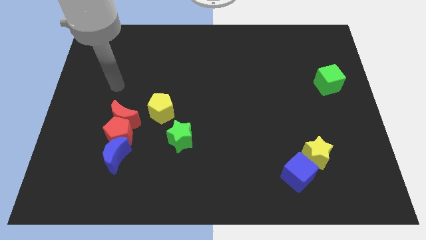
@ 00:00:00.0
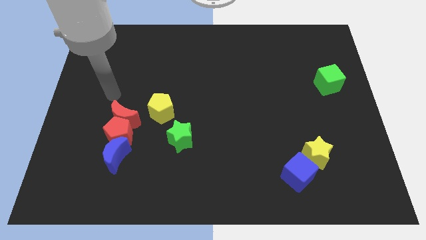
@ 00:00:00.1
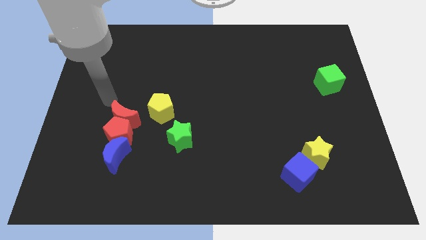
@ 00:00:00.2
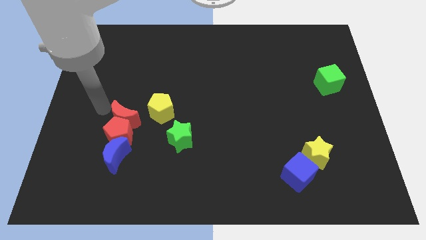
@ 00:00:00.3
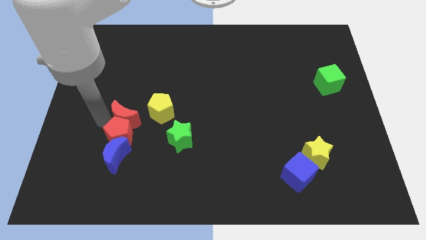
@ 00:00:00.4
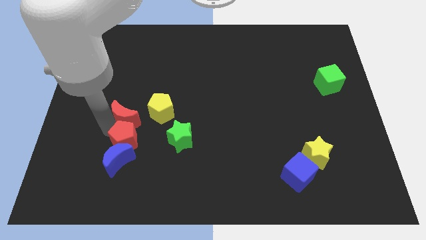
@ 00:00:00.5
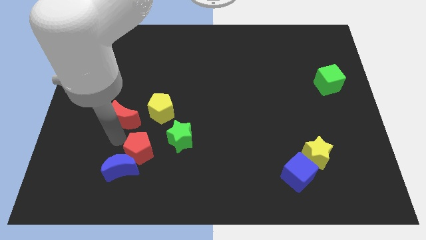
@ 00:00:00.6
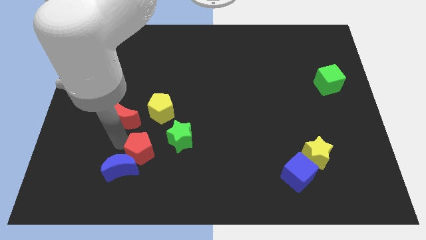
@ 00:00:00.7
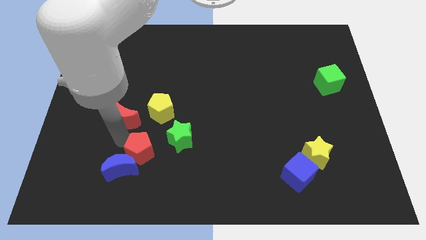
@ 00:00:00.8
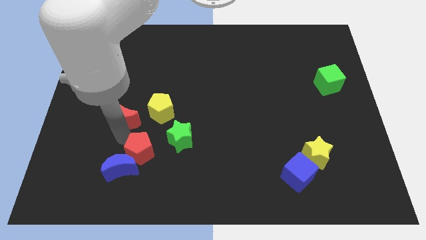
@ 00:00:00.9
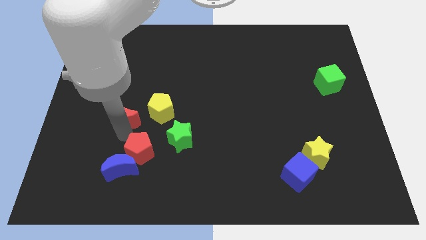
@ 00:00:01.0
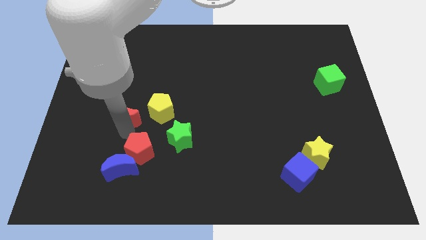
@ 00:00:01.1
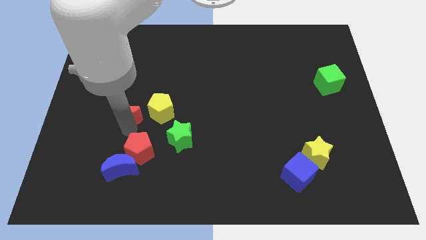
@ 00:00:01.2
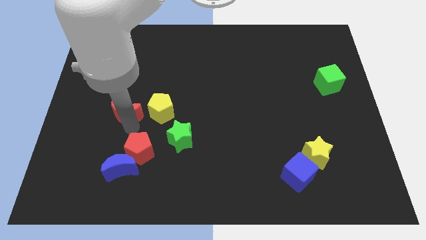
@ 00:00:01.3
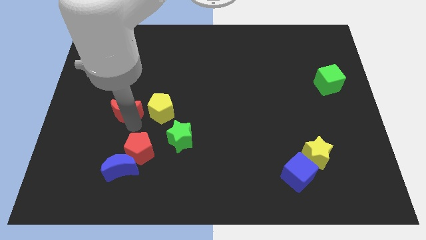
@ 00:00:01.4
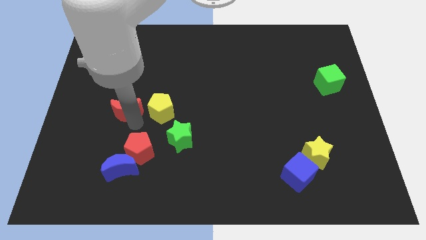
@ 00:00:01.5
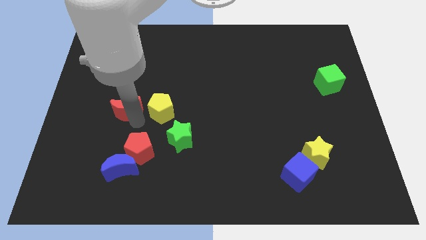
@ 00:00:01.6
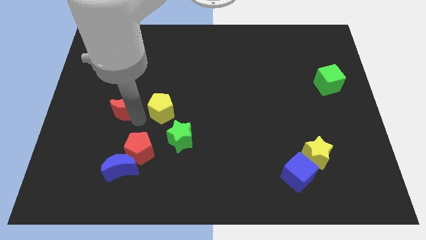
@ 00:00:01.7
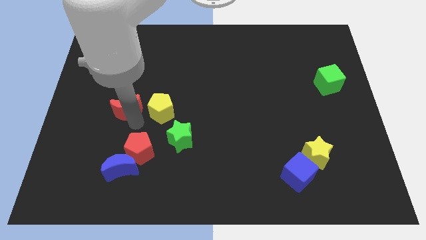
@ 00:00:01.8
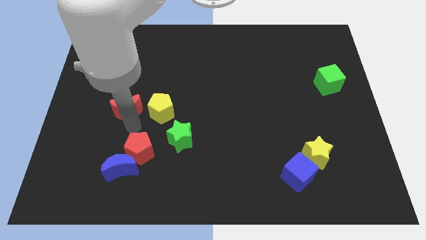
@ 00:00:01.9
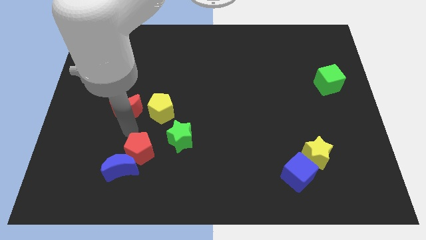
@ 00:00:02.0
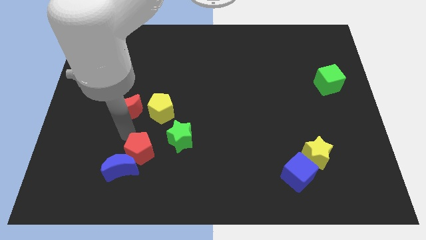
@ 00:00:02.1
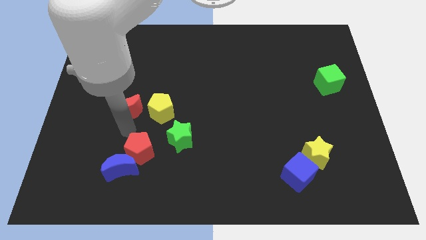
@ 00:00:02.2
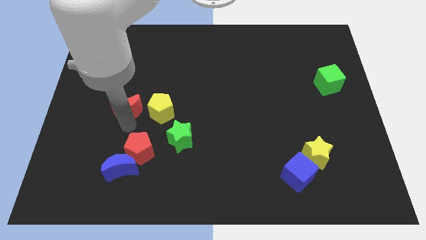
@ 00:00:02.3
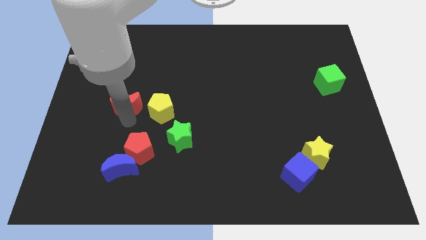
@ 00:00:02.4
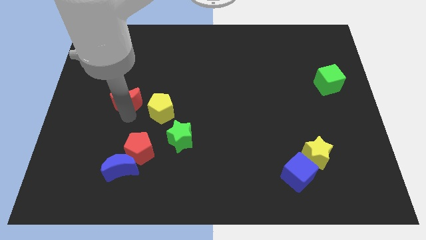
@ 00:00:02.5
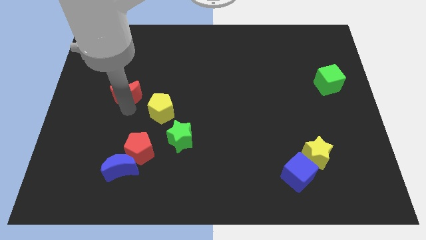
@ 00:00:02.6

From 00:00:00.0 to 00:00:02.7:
slide the red moon somewhat upwards

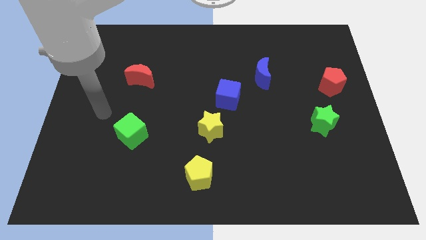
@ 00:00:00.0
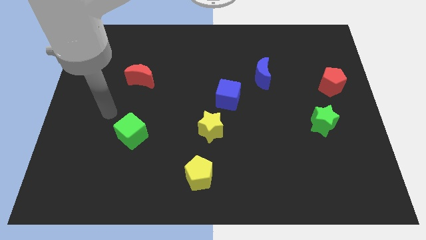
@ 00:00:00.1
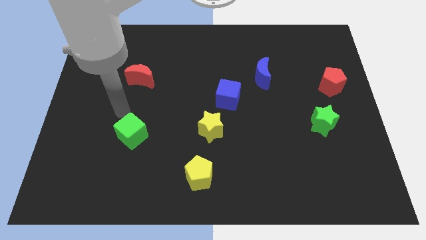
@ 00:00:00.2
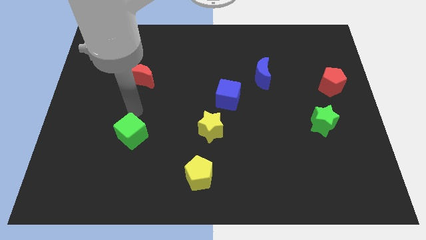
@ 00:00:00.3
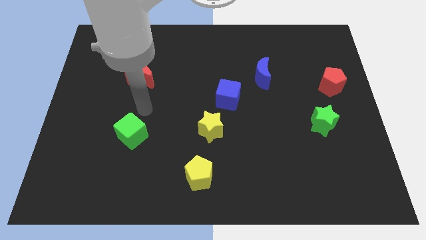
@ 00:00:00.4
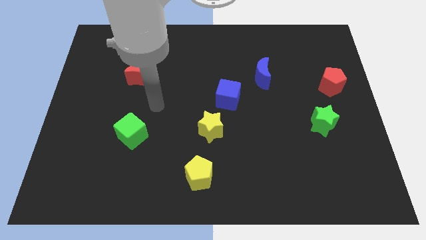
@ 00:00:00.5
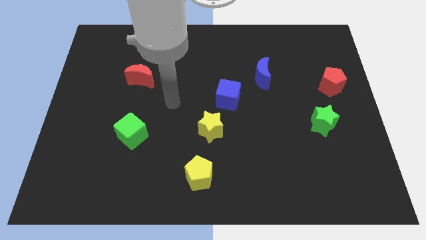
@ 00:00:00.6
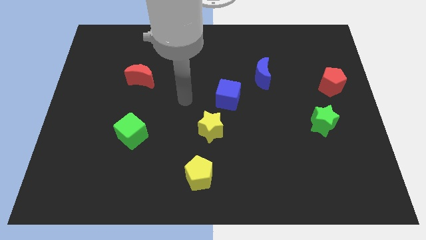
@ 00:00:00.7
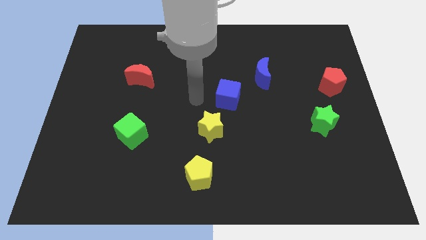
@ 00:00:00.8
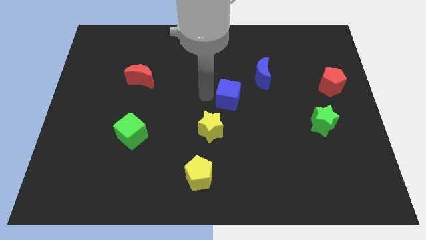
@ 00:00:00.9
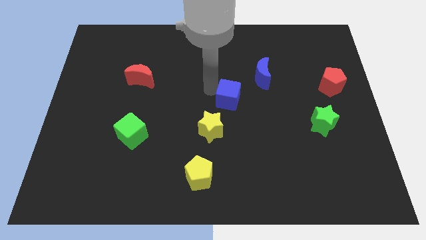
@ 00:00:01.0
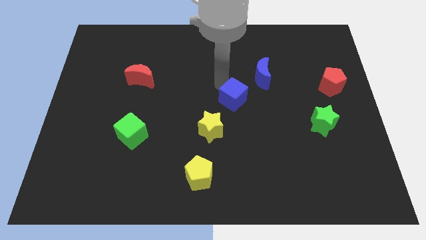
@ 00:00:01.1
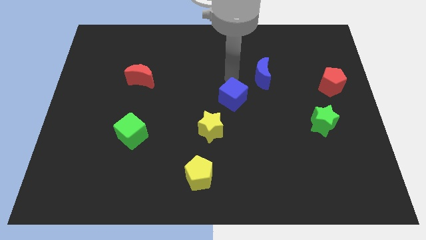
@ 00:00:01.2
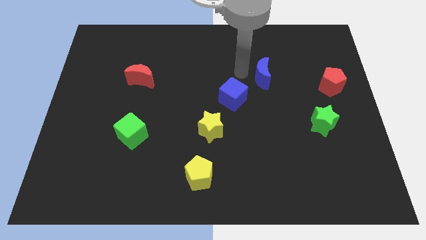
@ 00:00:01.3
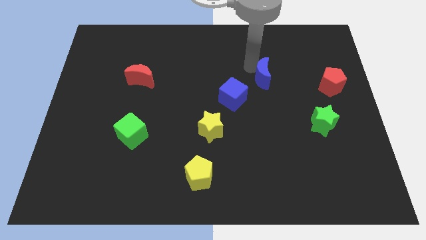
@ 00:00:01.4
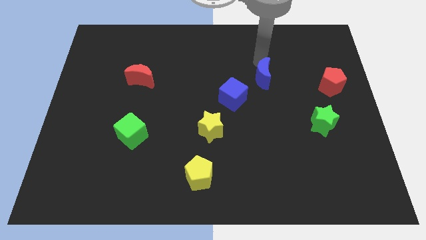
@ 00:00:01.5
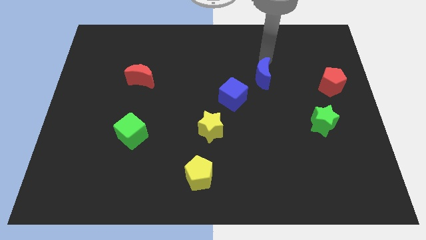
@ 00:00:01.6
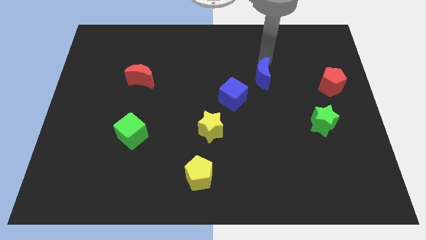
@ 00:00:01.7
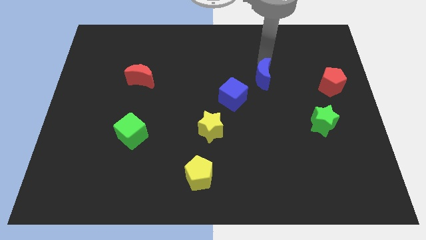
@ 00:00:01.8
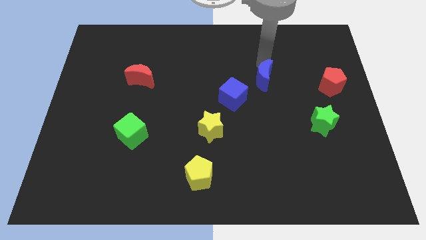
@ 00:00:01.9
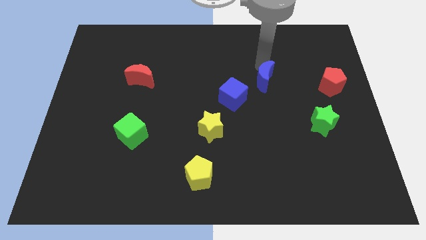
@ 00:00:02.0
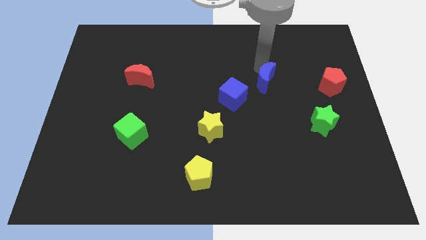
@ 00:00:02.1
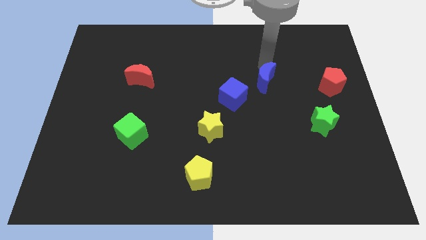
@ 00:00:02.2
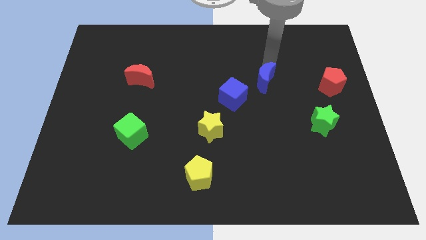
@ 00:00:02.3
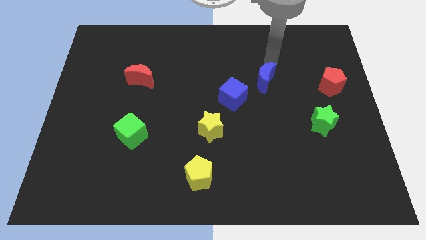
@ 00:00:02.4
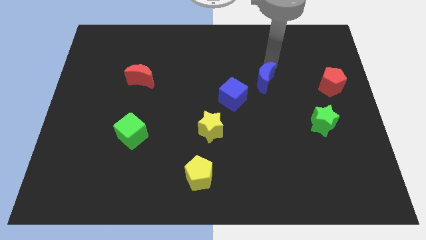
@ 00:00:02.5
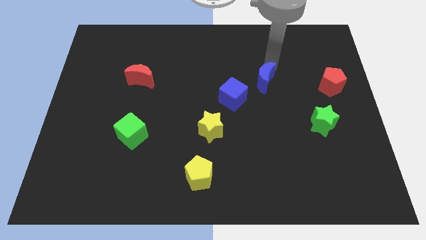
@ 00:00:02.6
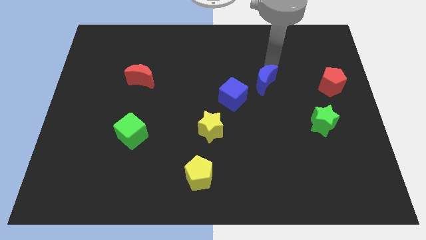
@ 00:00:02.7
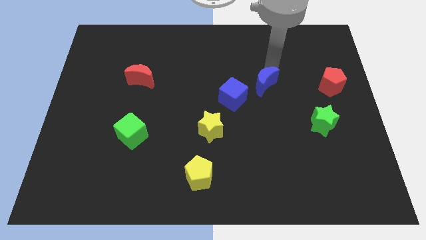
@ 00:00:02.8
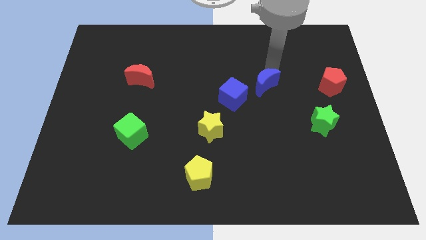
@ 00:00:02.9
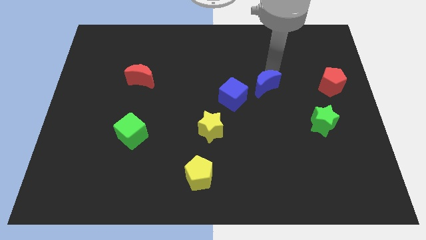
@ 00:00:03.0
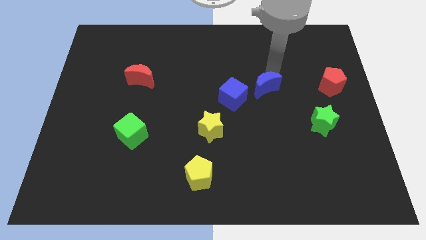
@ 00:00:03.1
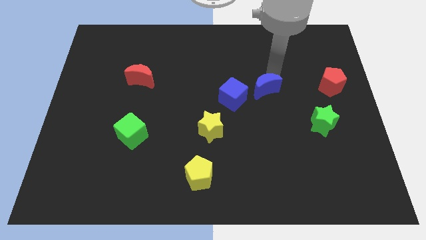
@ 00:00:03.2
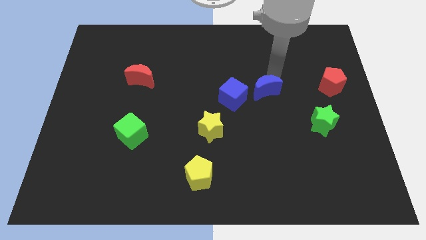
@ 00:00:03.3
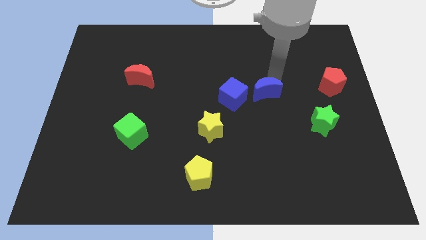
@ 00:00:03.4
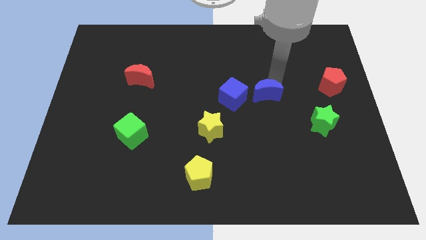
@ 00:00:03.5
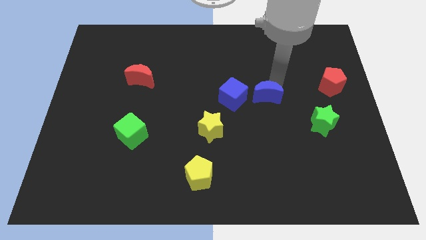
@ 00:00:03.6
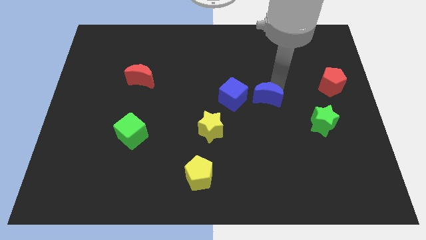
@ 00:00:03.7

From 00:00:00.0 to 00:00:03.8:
move the blue moon down a bit

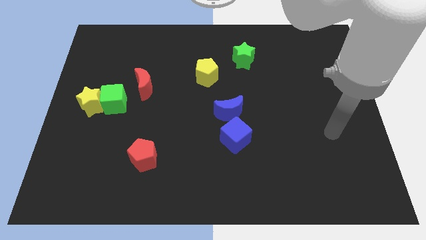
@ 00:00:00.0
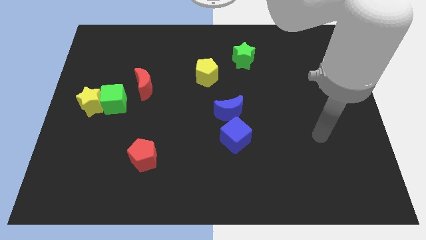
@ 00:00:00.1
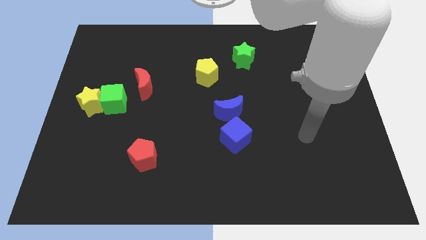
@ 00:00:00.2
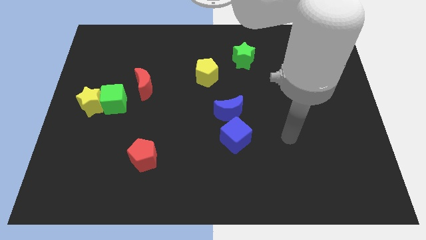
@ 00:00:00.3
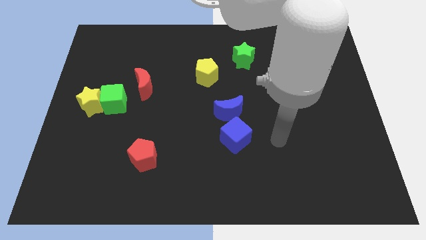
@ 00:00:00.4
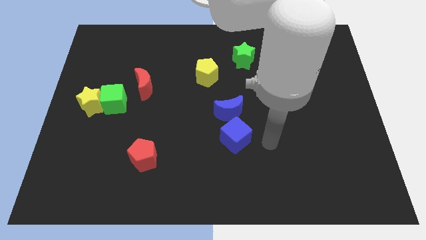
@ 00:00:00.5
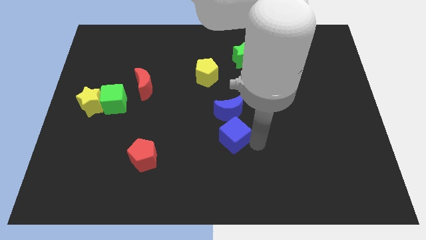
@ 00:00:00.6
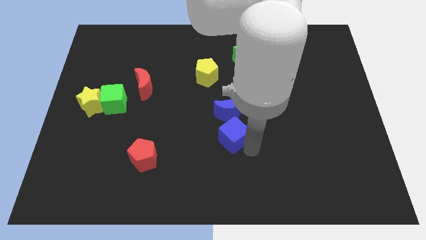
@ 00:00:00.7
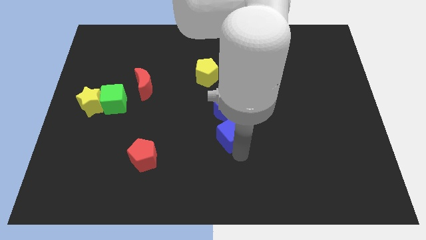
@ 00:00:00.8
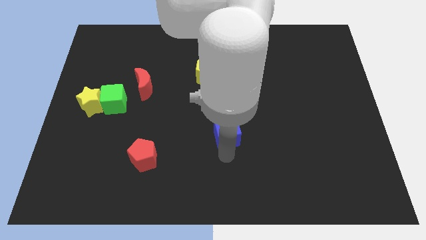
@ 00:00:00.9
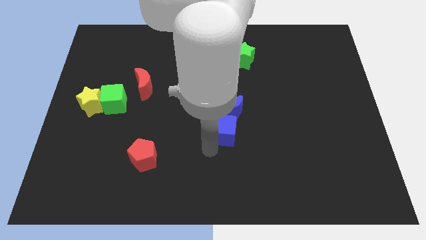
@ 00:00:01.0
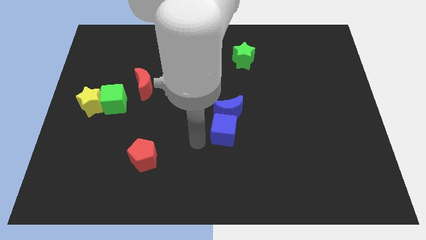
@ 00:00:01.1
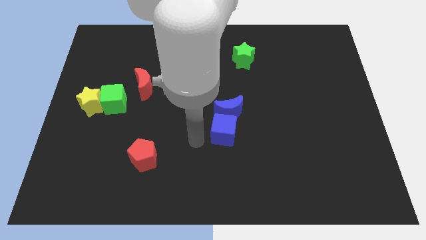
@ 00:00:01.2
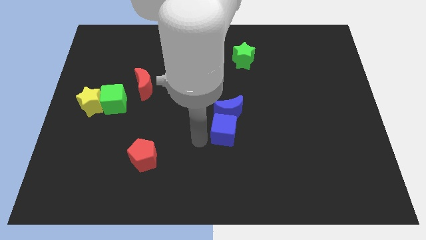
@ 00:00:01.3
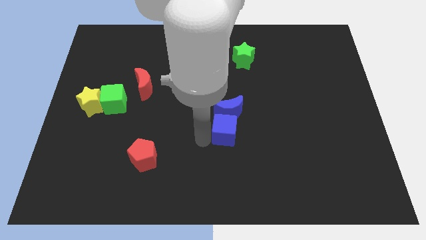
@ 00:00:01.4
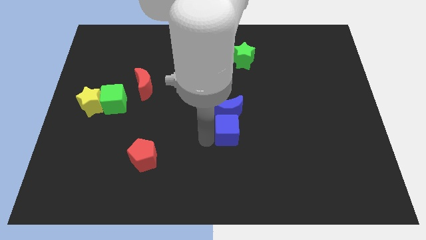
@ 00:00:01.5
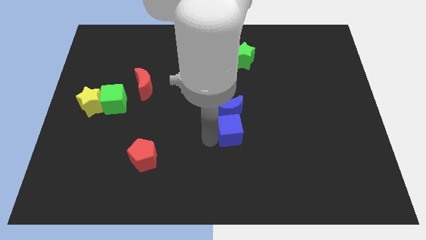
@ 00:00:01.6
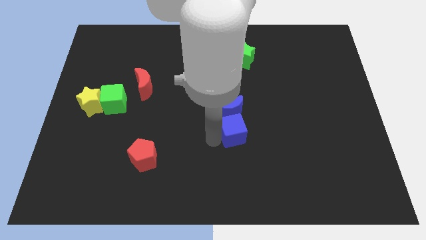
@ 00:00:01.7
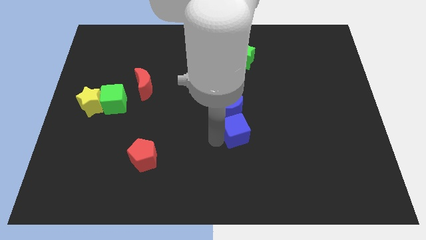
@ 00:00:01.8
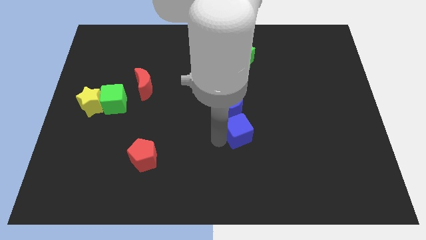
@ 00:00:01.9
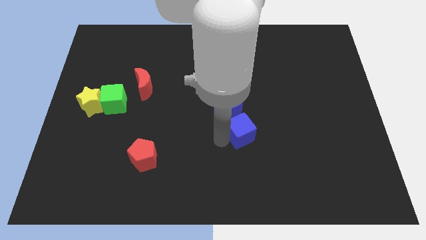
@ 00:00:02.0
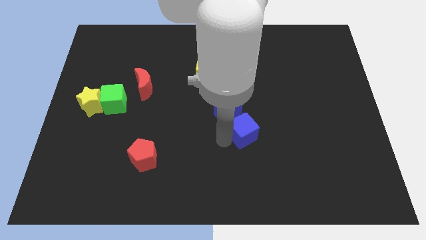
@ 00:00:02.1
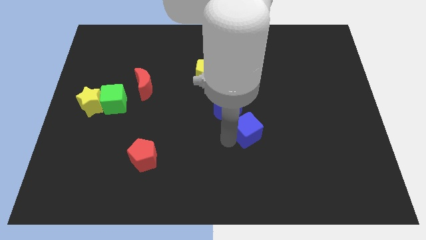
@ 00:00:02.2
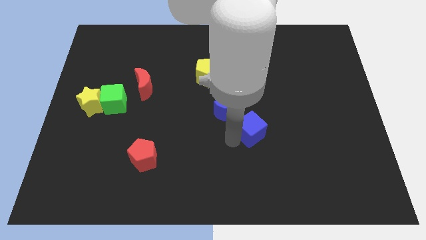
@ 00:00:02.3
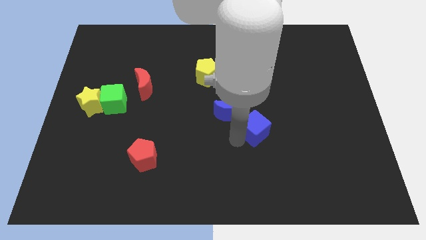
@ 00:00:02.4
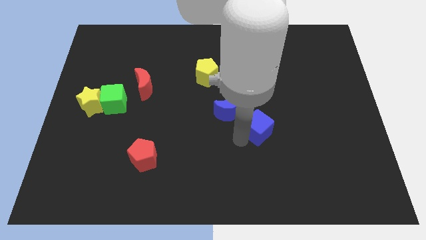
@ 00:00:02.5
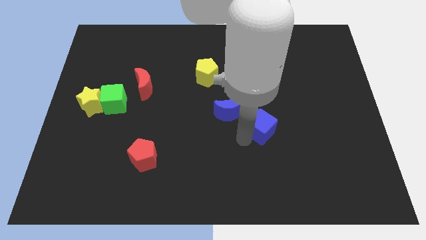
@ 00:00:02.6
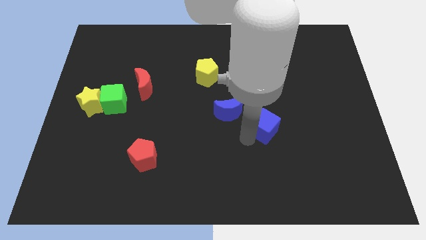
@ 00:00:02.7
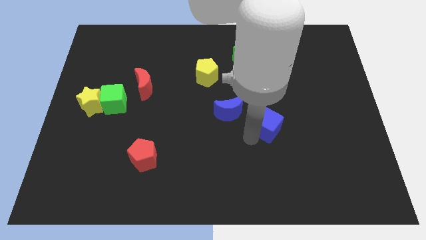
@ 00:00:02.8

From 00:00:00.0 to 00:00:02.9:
push the blue cube upwards and to the right a little bit
